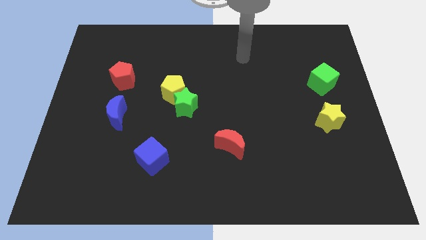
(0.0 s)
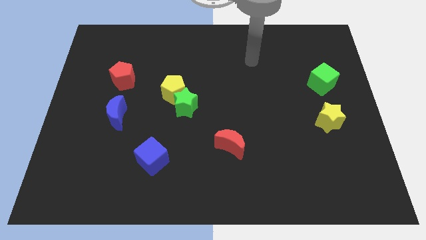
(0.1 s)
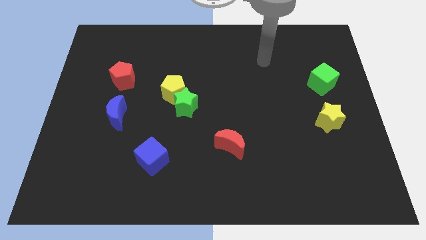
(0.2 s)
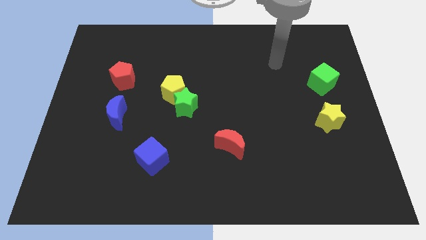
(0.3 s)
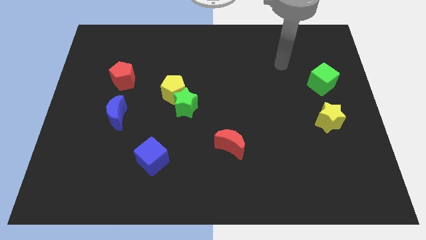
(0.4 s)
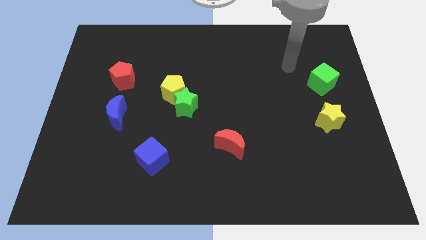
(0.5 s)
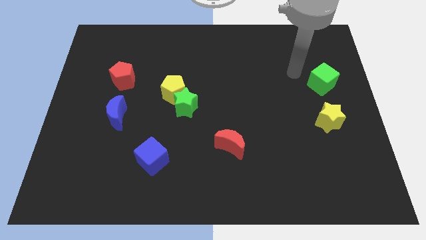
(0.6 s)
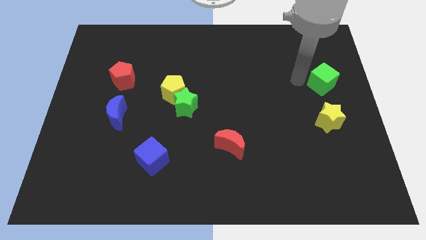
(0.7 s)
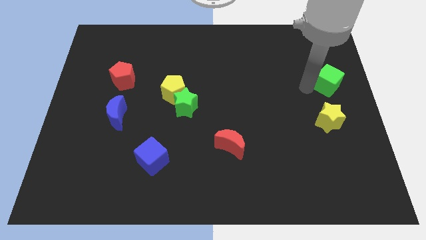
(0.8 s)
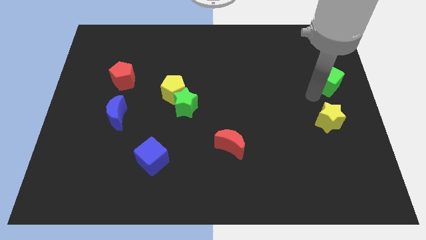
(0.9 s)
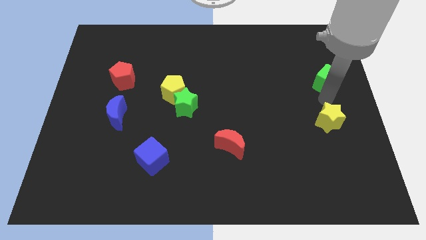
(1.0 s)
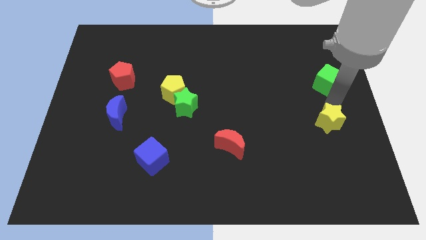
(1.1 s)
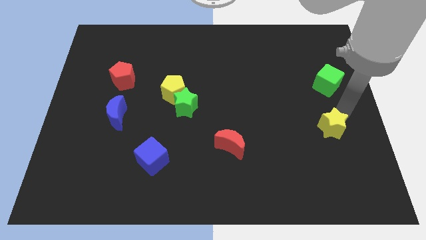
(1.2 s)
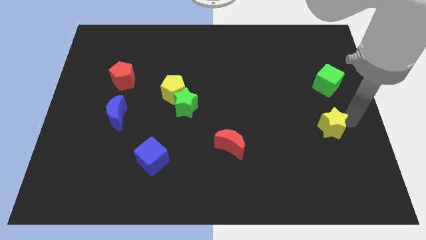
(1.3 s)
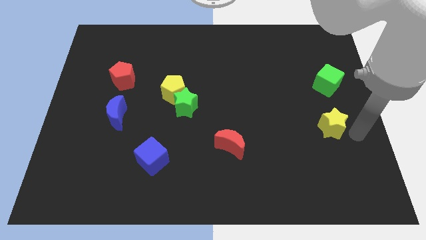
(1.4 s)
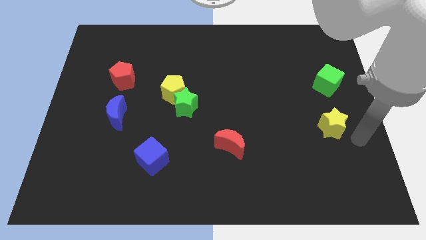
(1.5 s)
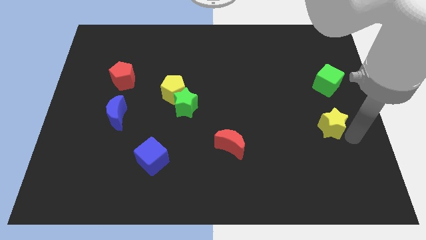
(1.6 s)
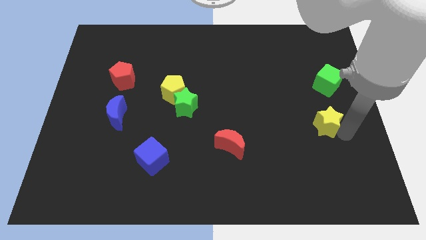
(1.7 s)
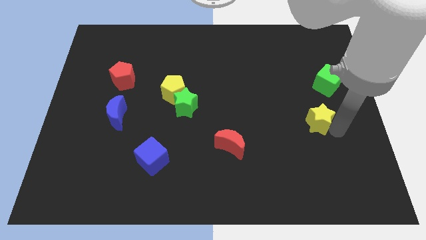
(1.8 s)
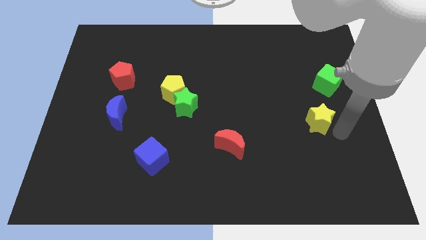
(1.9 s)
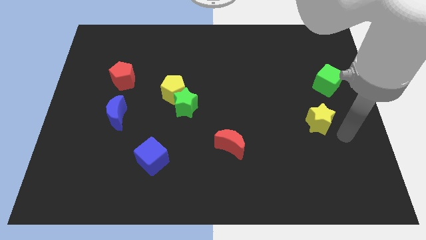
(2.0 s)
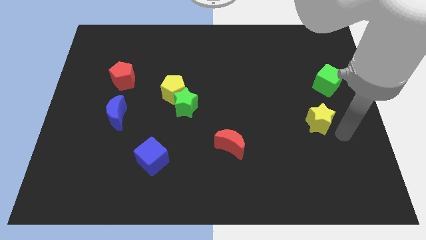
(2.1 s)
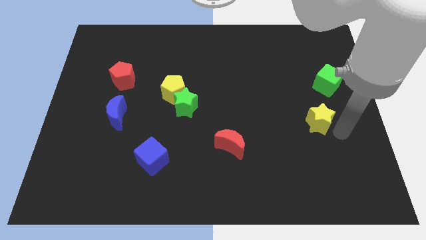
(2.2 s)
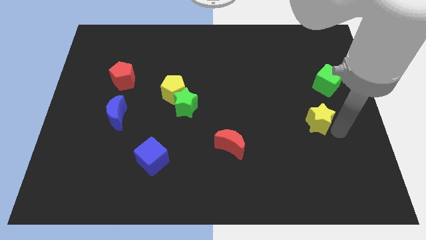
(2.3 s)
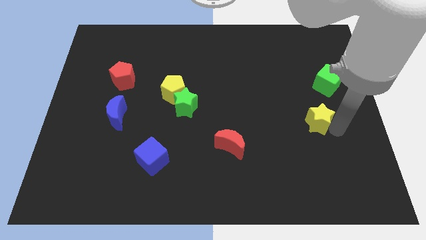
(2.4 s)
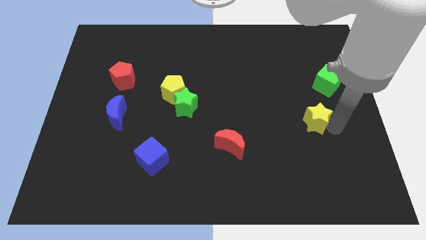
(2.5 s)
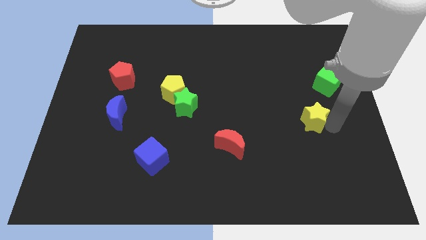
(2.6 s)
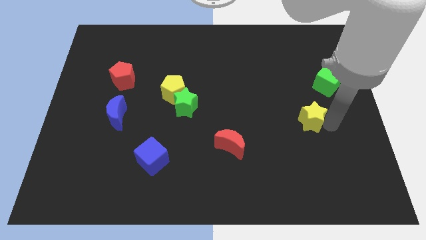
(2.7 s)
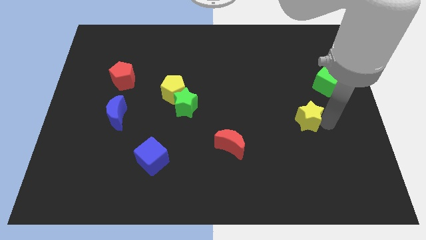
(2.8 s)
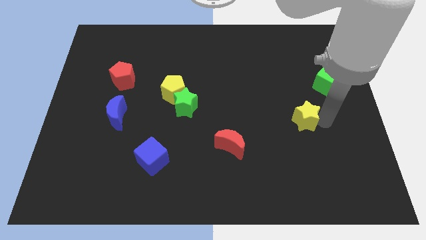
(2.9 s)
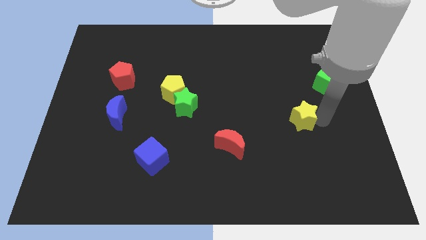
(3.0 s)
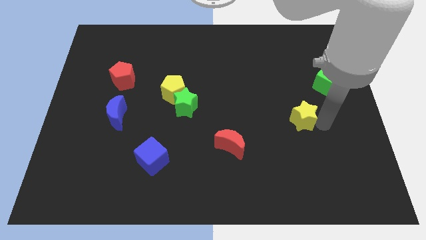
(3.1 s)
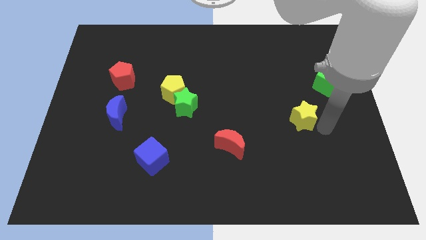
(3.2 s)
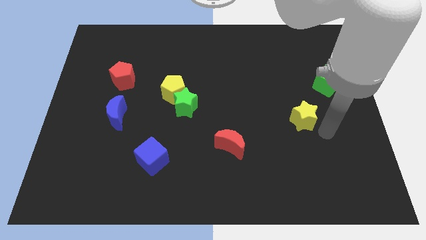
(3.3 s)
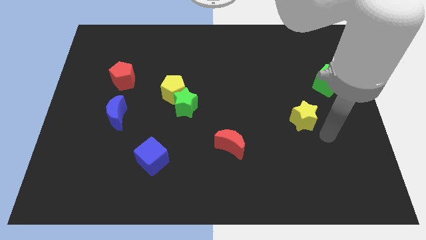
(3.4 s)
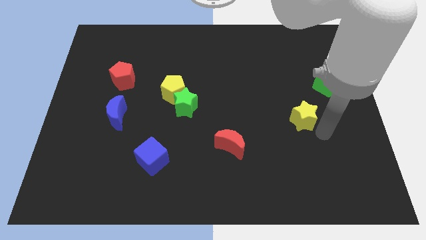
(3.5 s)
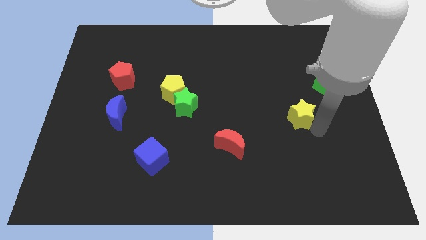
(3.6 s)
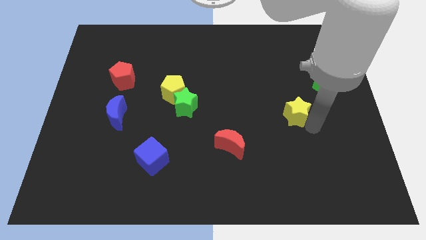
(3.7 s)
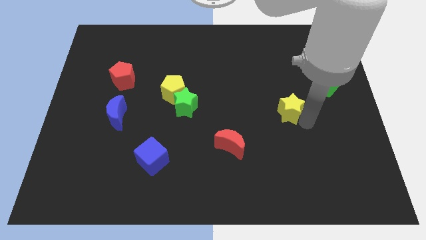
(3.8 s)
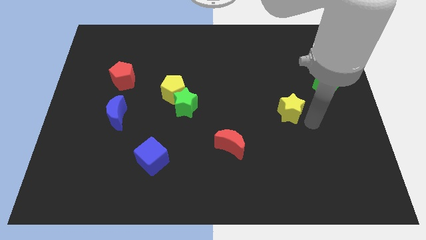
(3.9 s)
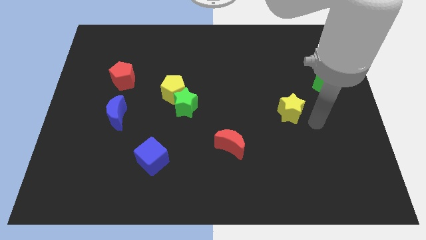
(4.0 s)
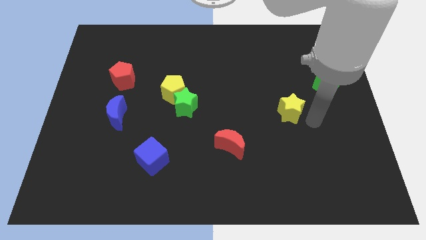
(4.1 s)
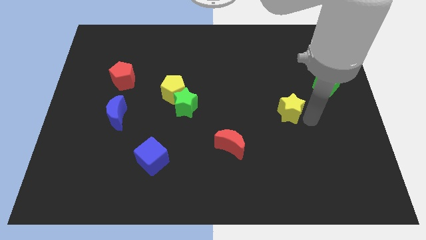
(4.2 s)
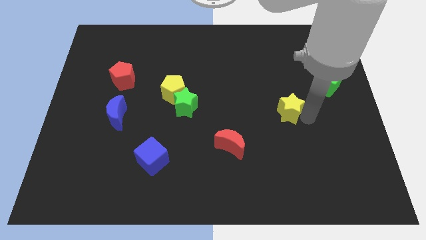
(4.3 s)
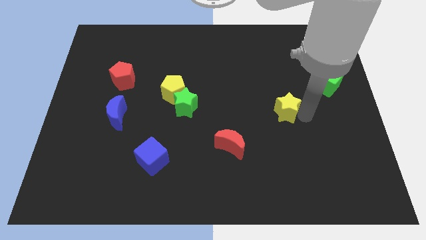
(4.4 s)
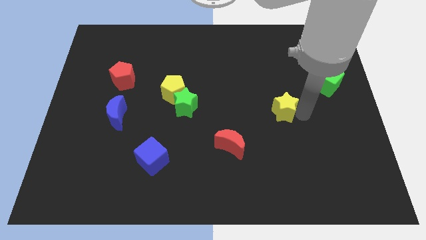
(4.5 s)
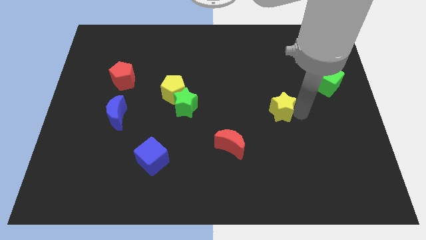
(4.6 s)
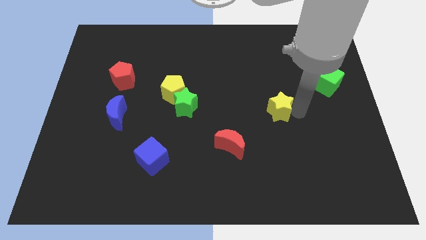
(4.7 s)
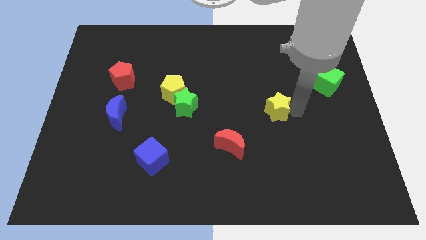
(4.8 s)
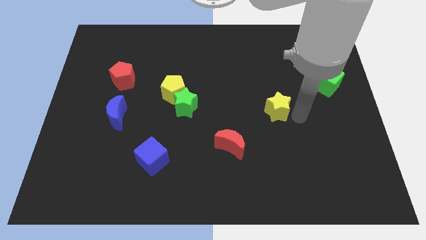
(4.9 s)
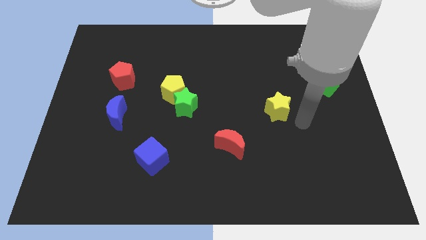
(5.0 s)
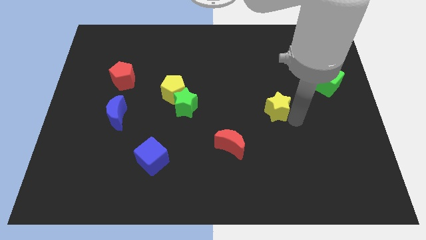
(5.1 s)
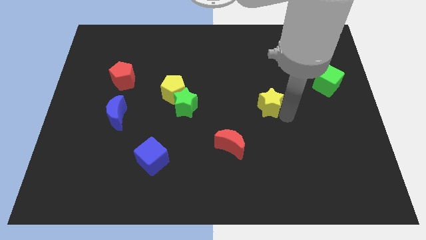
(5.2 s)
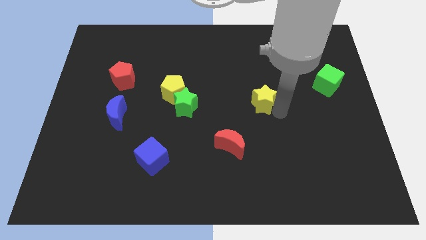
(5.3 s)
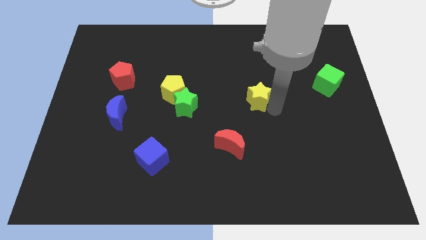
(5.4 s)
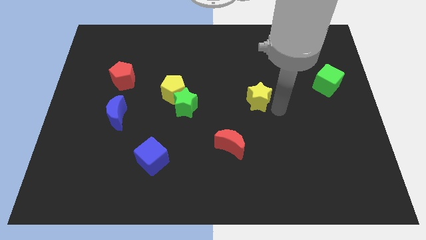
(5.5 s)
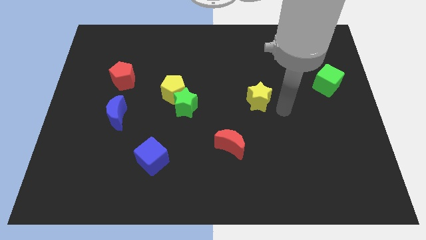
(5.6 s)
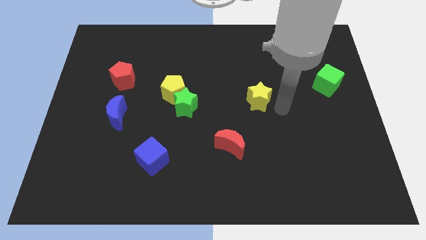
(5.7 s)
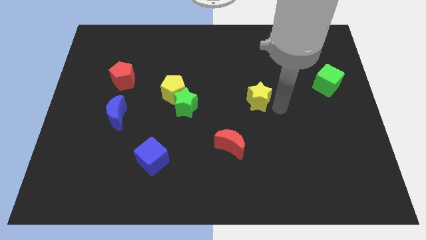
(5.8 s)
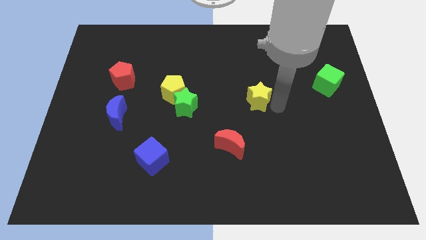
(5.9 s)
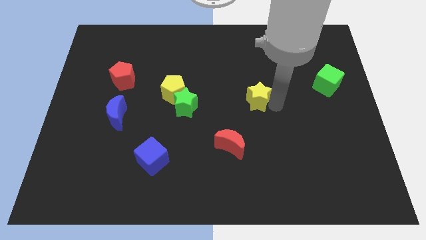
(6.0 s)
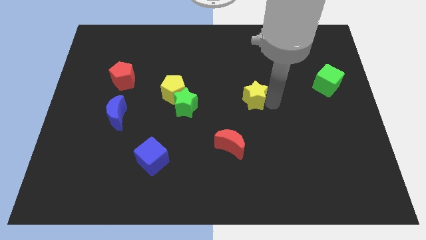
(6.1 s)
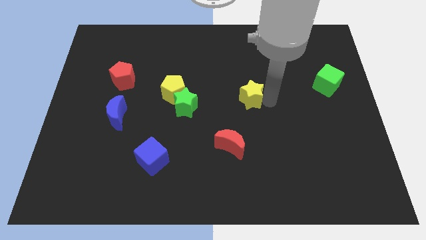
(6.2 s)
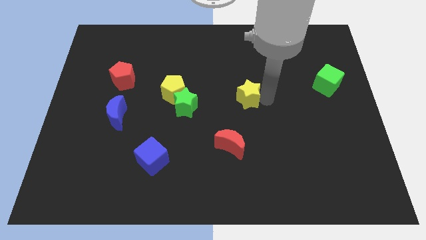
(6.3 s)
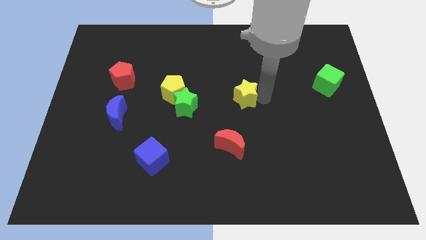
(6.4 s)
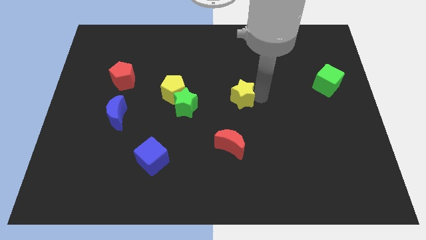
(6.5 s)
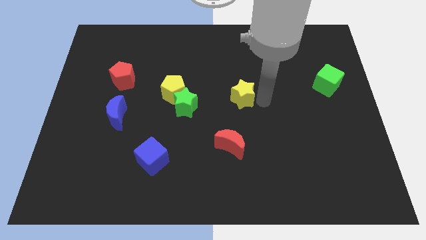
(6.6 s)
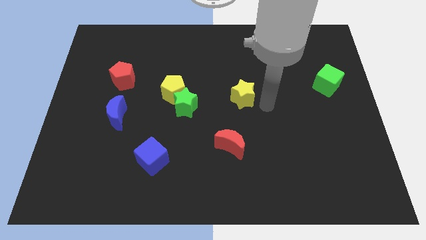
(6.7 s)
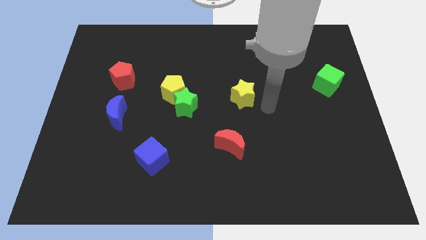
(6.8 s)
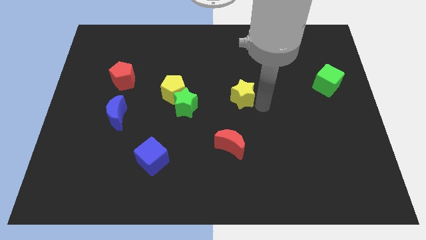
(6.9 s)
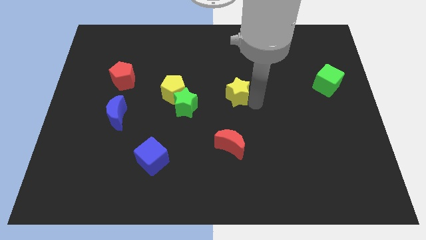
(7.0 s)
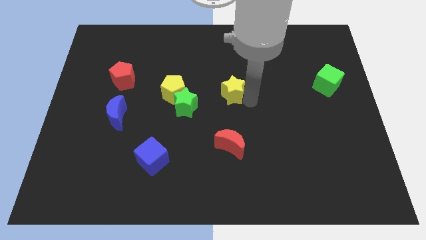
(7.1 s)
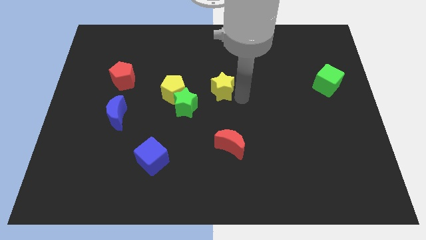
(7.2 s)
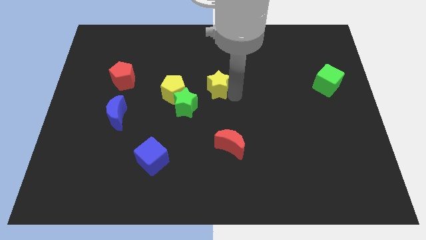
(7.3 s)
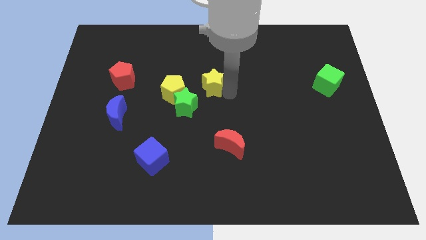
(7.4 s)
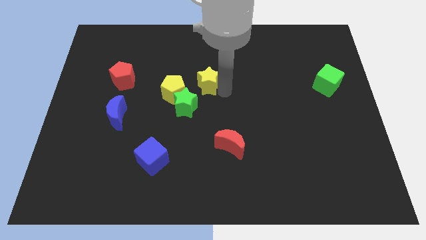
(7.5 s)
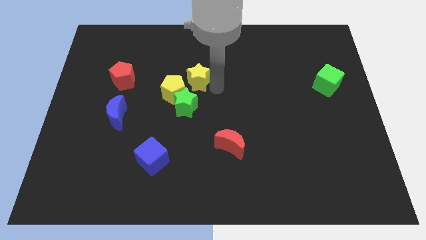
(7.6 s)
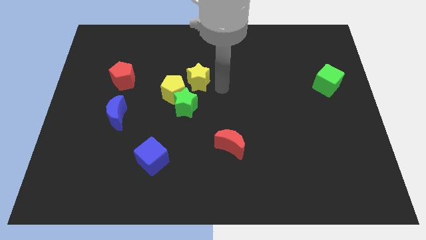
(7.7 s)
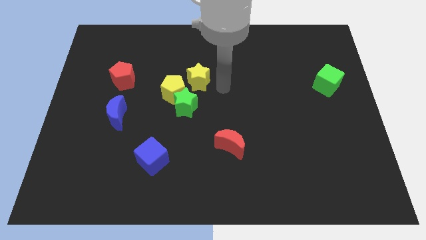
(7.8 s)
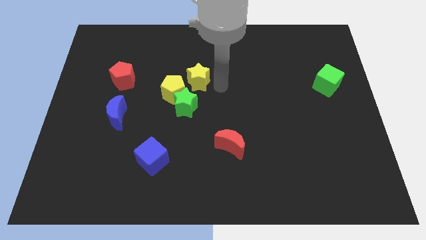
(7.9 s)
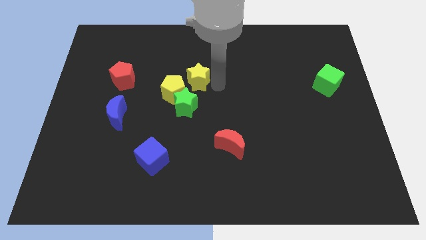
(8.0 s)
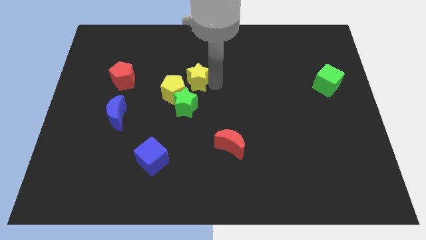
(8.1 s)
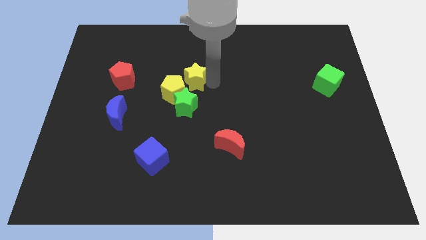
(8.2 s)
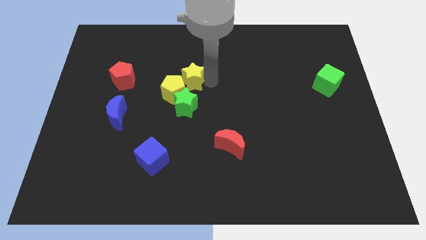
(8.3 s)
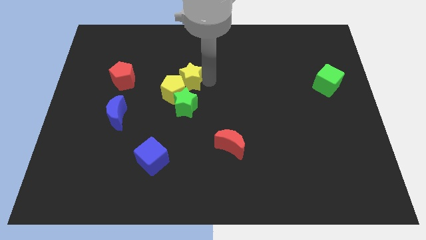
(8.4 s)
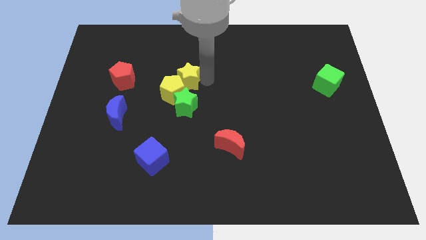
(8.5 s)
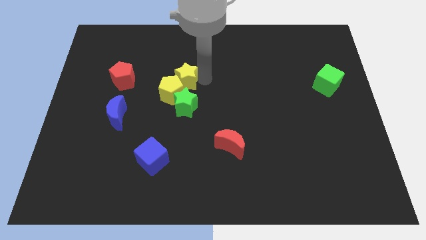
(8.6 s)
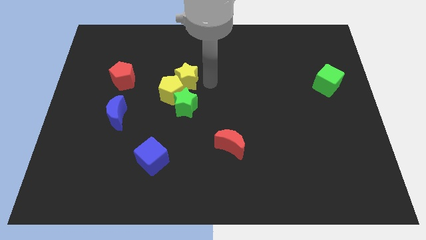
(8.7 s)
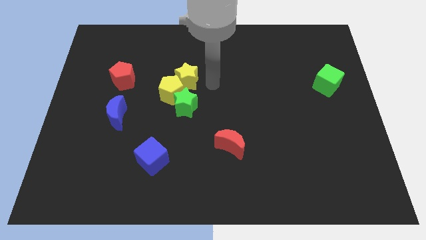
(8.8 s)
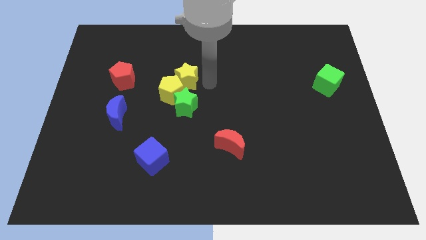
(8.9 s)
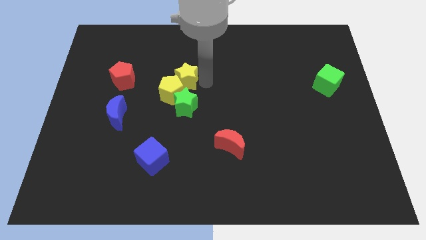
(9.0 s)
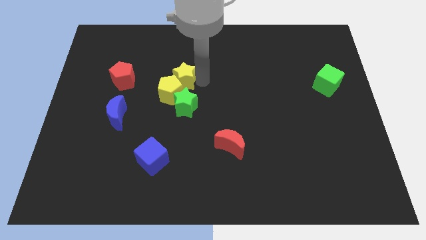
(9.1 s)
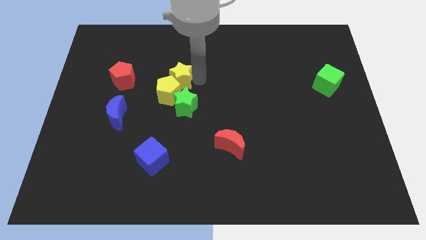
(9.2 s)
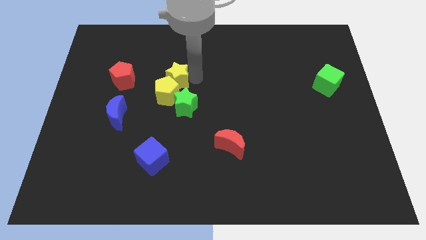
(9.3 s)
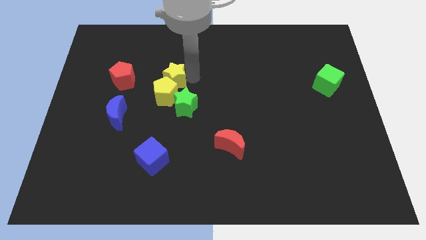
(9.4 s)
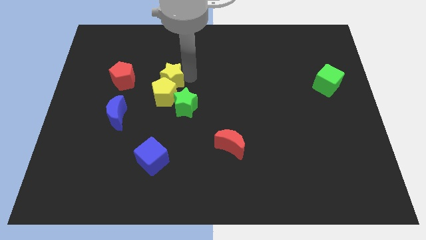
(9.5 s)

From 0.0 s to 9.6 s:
move the yellow star diagonally up and to the left of the yellow pentagon
